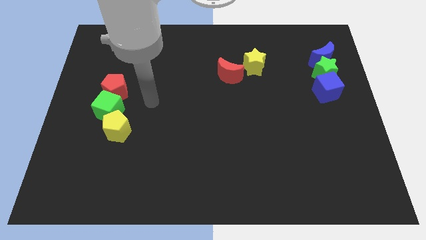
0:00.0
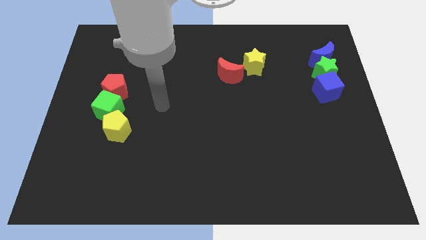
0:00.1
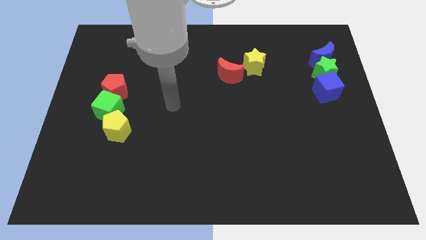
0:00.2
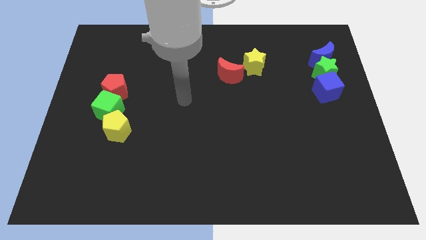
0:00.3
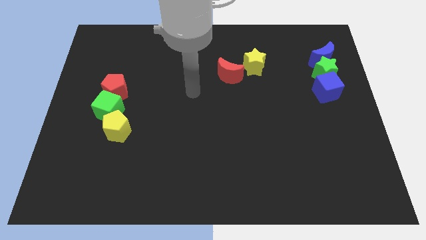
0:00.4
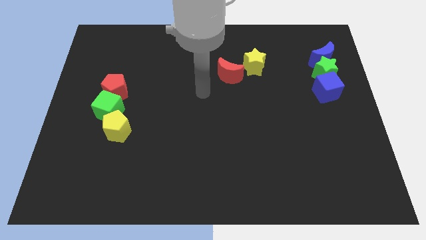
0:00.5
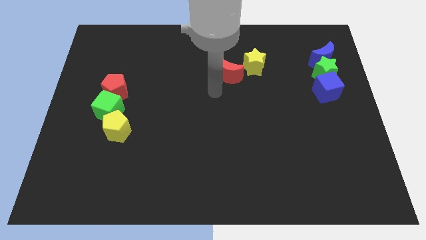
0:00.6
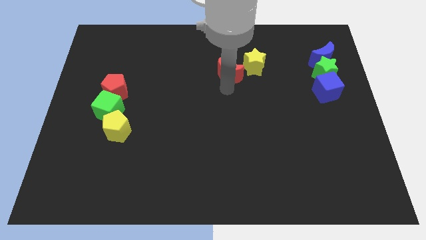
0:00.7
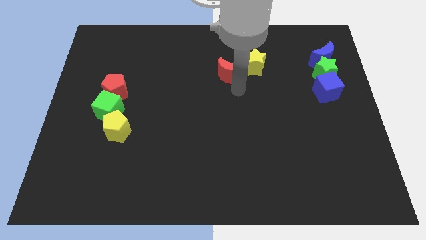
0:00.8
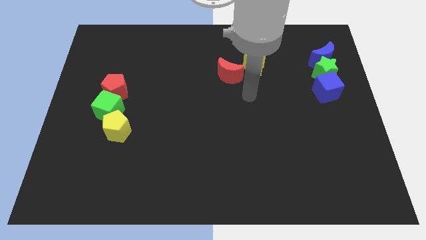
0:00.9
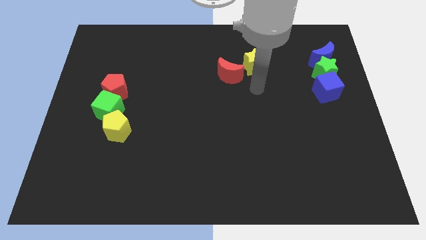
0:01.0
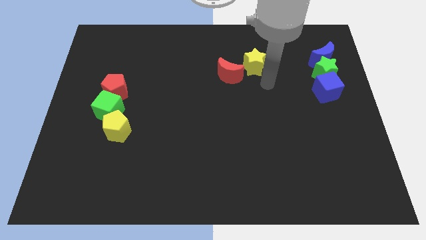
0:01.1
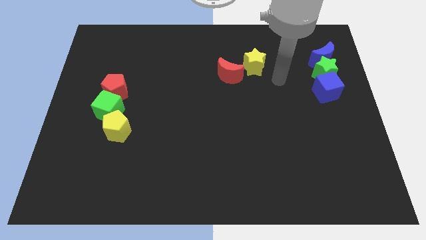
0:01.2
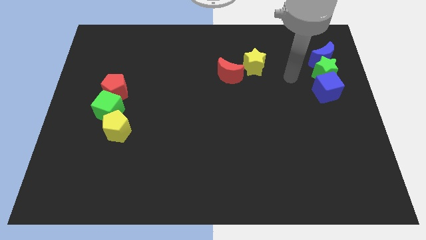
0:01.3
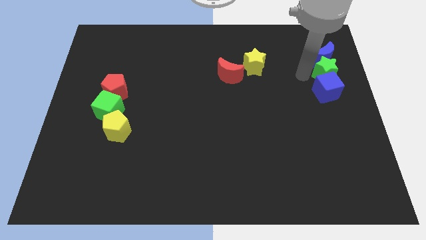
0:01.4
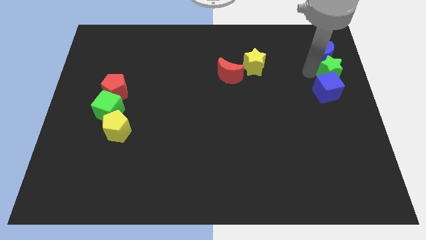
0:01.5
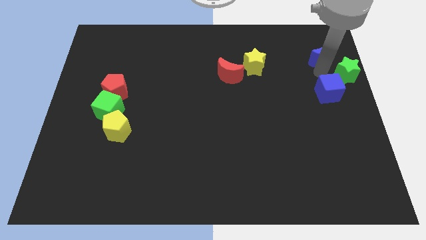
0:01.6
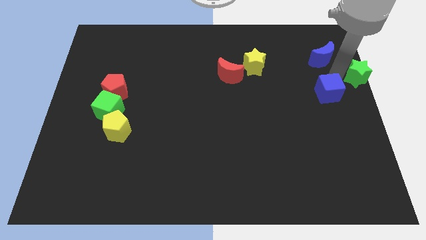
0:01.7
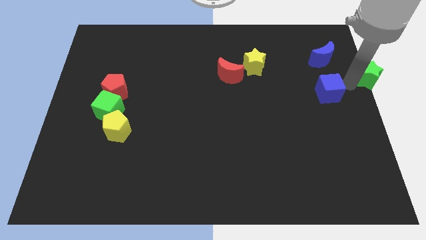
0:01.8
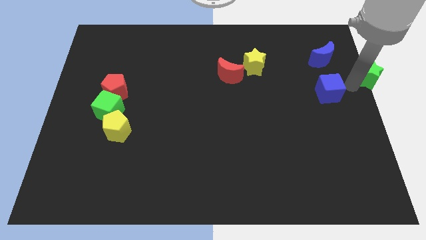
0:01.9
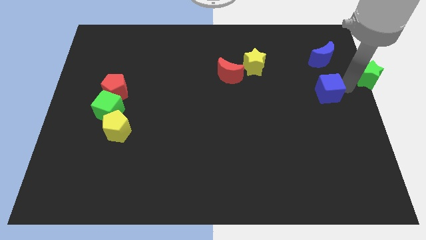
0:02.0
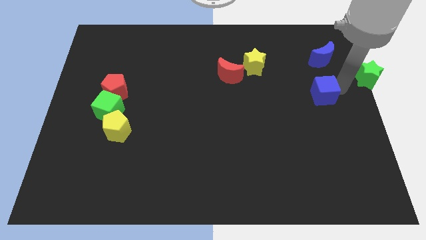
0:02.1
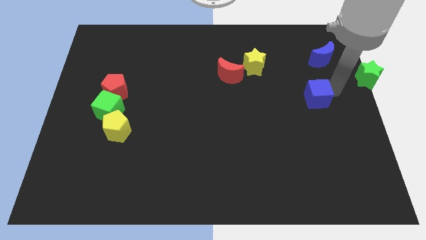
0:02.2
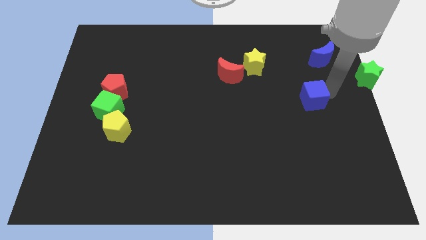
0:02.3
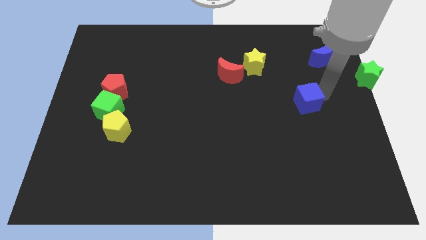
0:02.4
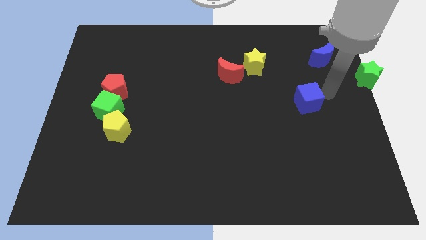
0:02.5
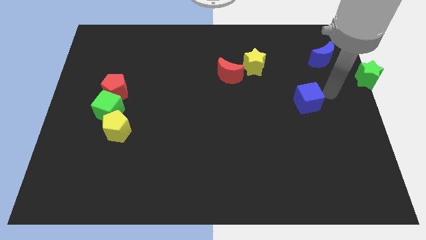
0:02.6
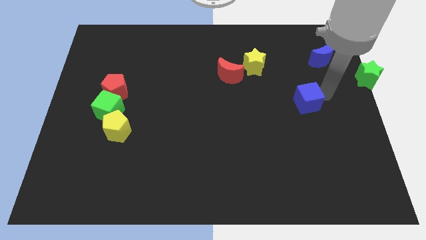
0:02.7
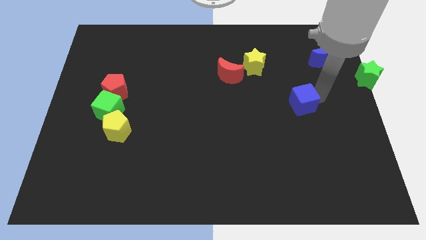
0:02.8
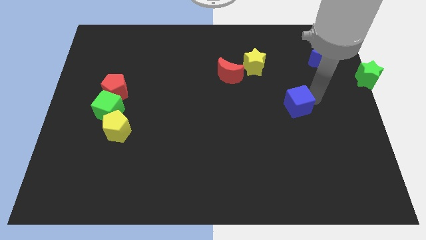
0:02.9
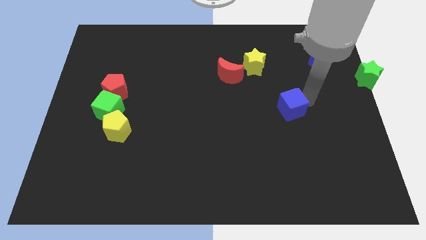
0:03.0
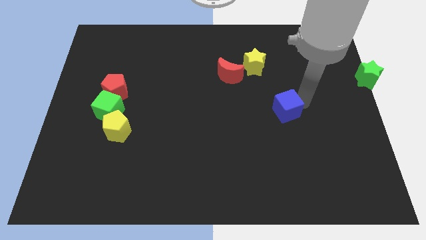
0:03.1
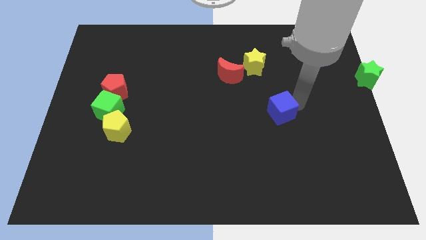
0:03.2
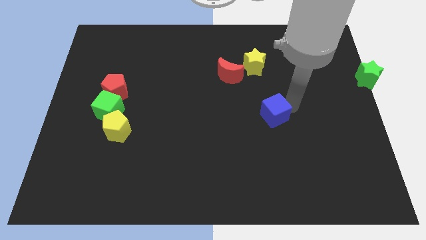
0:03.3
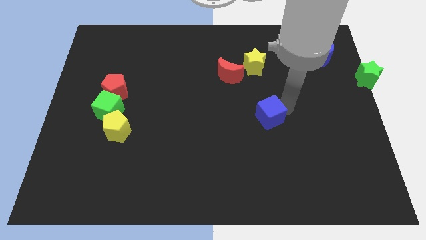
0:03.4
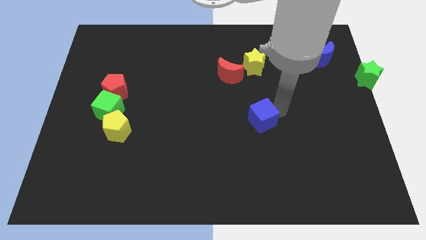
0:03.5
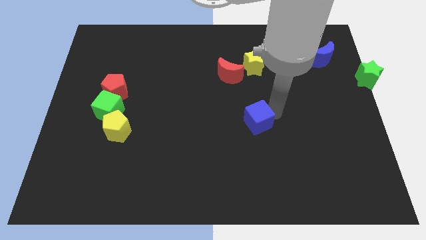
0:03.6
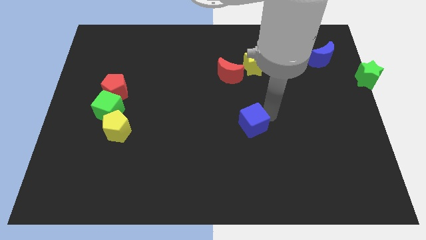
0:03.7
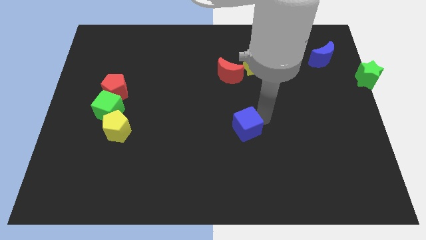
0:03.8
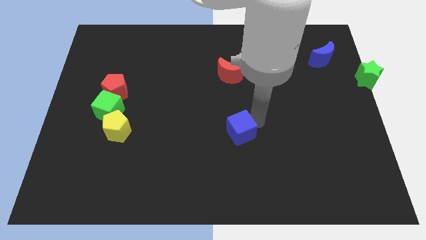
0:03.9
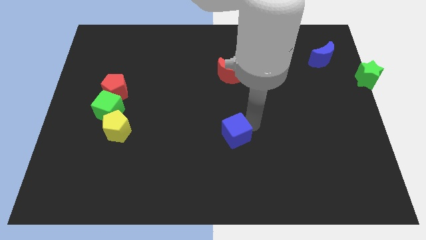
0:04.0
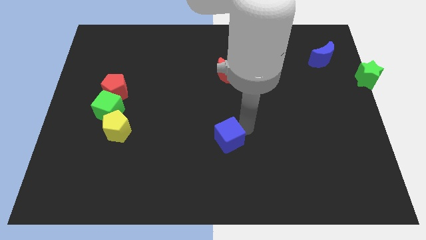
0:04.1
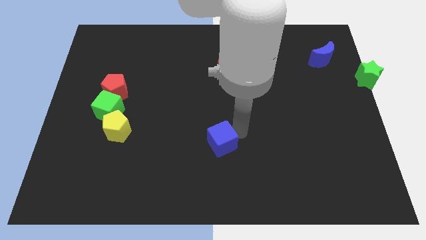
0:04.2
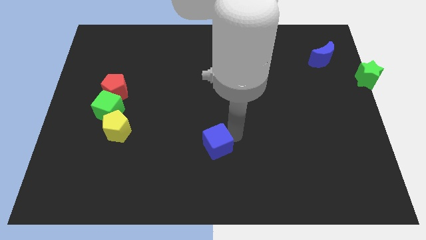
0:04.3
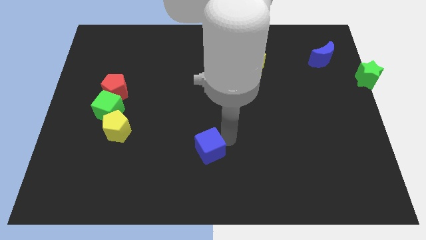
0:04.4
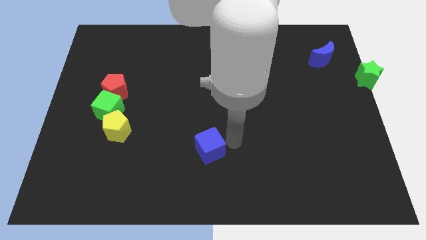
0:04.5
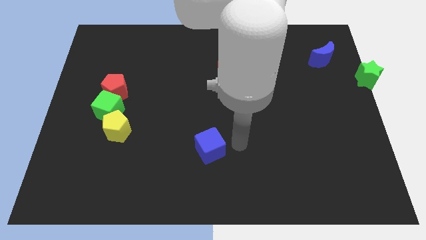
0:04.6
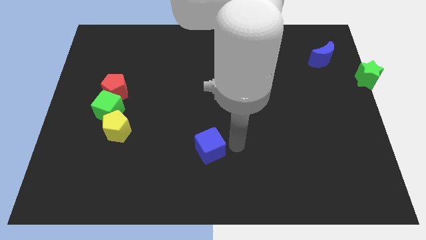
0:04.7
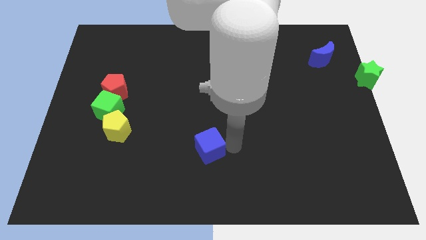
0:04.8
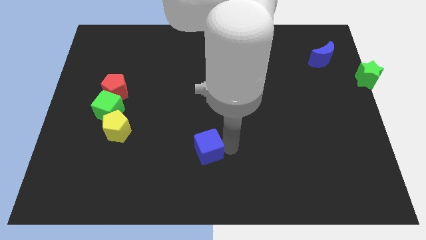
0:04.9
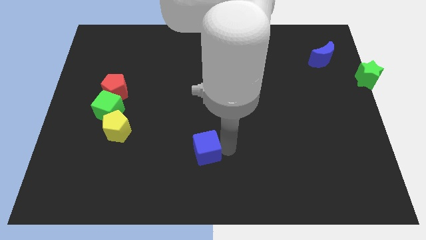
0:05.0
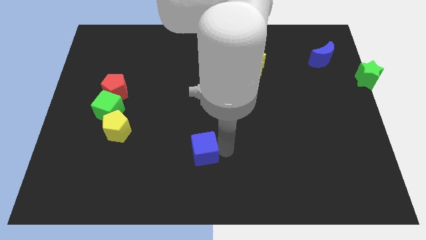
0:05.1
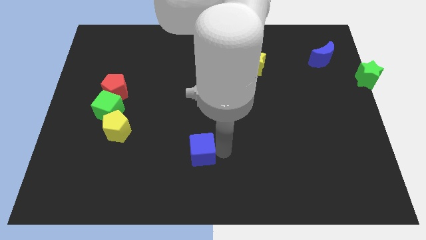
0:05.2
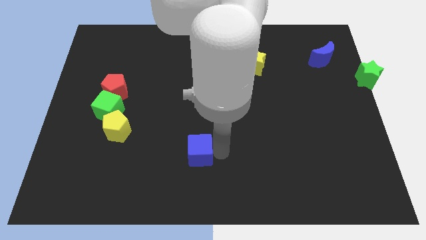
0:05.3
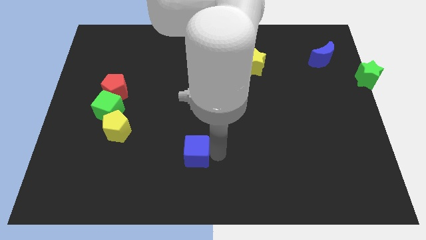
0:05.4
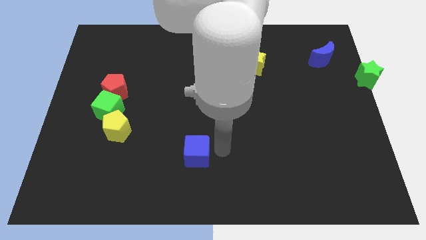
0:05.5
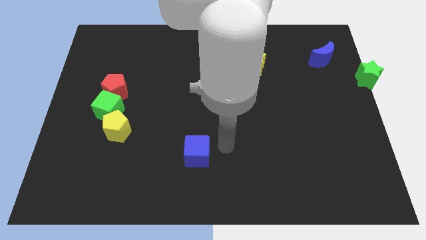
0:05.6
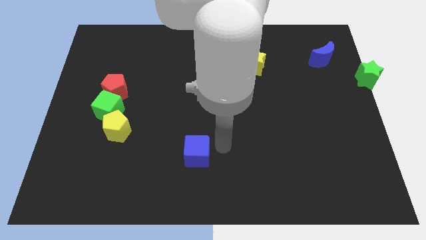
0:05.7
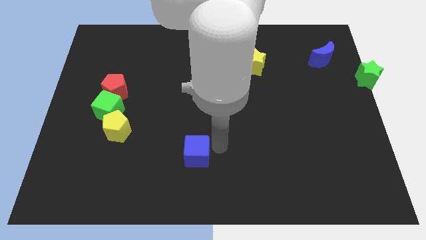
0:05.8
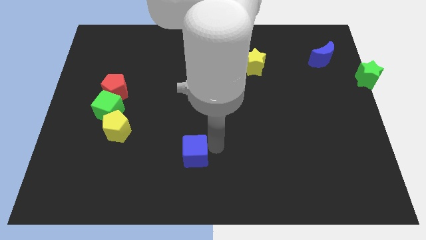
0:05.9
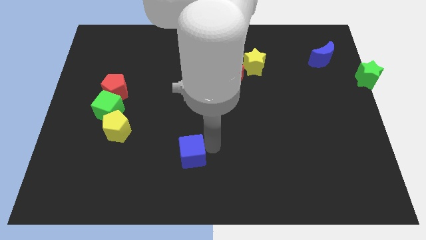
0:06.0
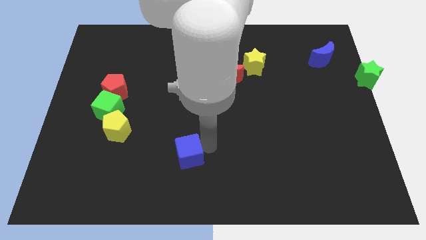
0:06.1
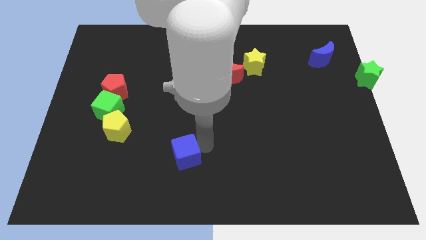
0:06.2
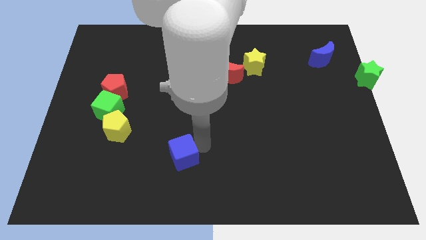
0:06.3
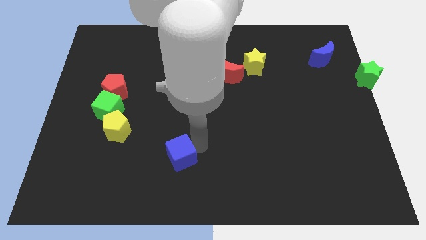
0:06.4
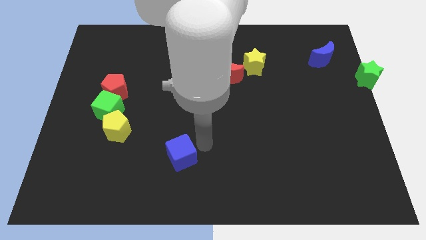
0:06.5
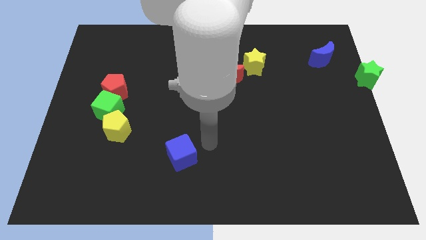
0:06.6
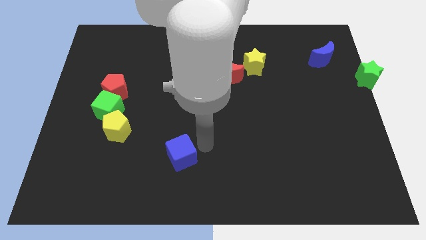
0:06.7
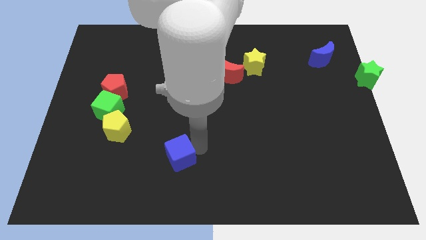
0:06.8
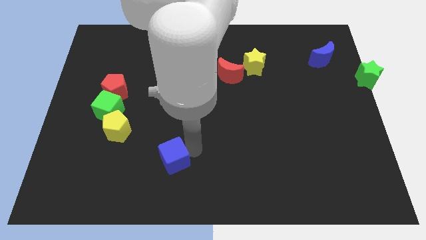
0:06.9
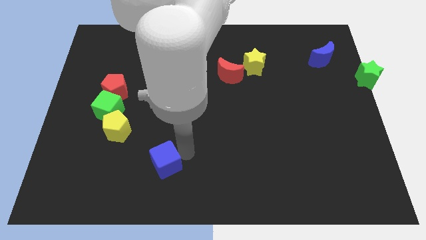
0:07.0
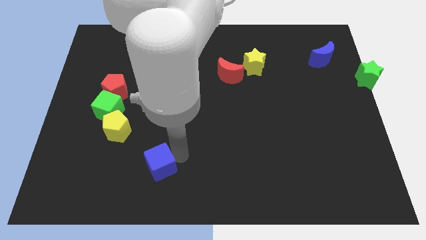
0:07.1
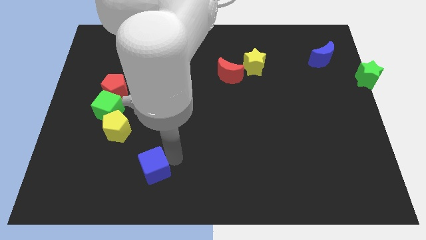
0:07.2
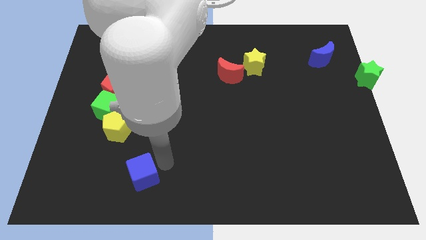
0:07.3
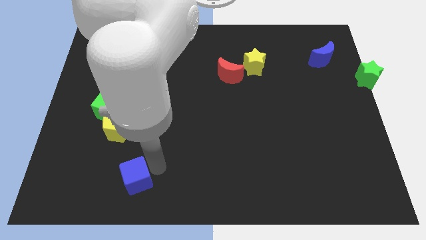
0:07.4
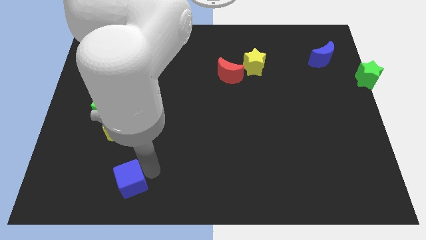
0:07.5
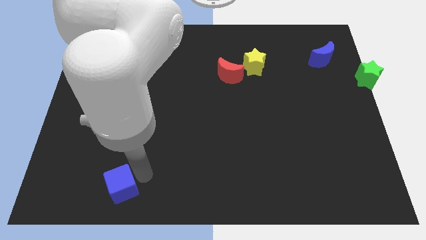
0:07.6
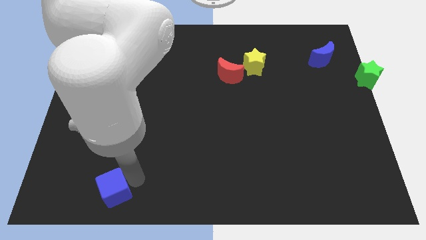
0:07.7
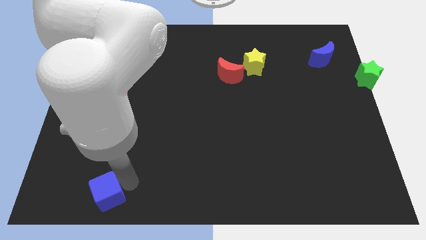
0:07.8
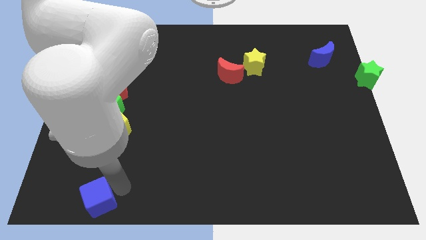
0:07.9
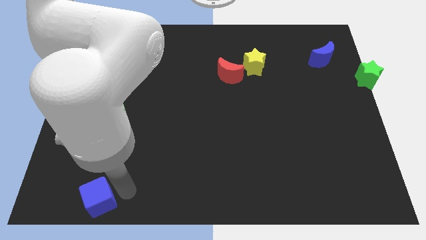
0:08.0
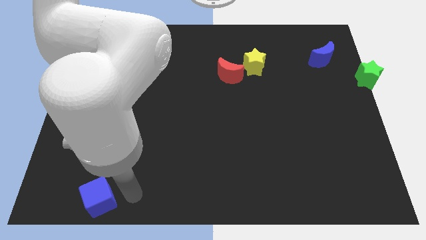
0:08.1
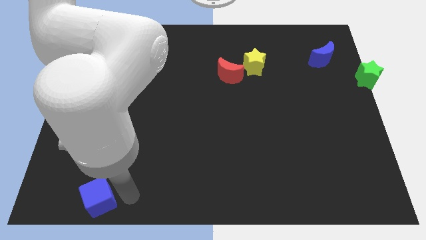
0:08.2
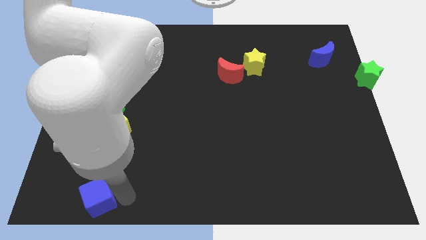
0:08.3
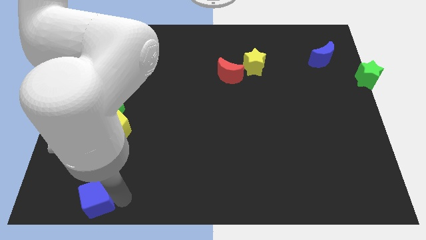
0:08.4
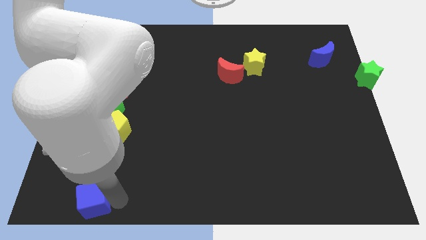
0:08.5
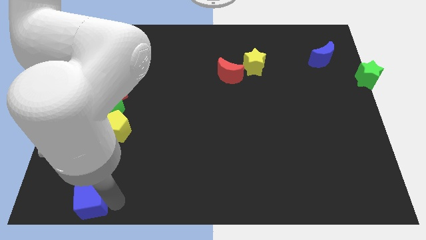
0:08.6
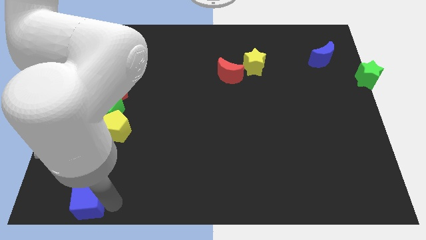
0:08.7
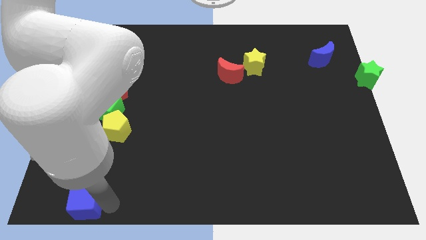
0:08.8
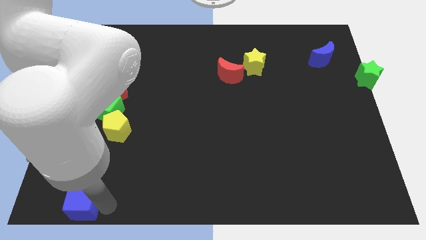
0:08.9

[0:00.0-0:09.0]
slide the blue cube to the lower left corner
